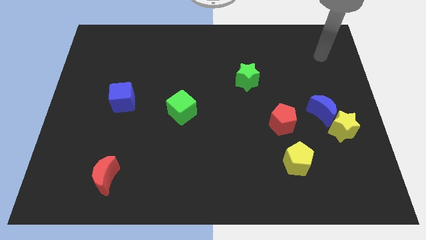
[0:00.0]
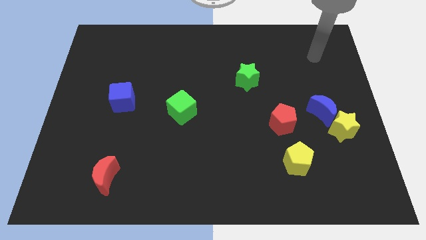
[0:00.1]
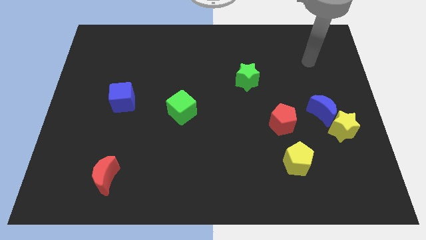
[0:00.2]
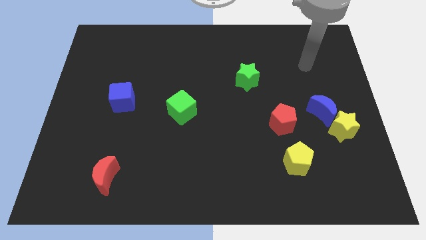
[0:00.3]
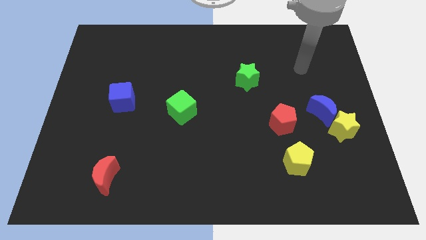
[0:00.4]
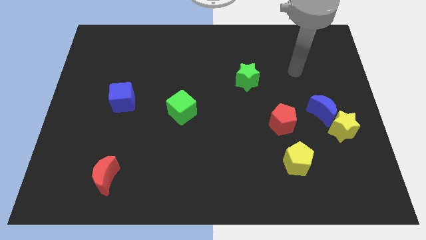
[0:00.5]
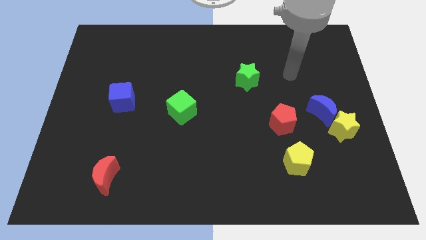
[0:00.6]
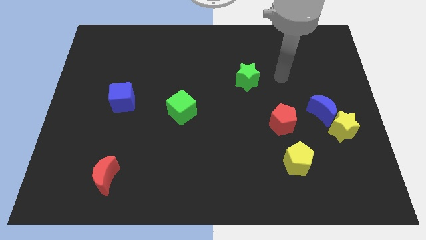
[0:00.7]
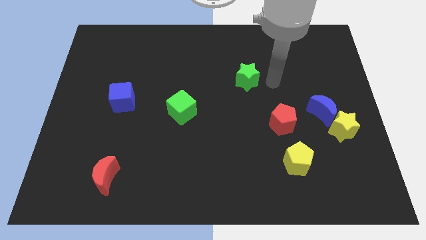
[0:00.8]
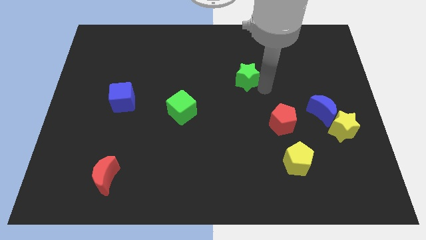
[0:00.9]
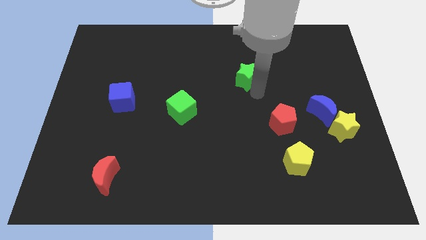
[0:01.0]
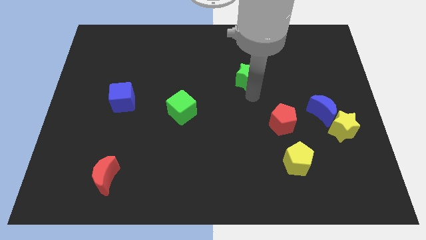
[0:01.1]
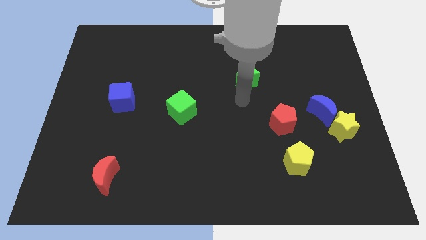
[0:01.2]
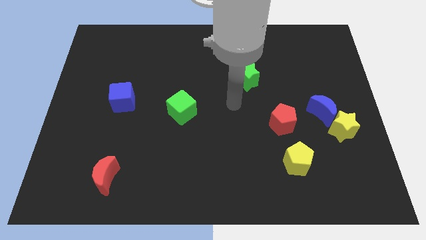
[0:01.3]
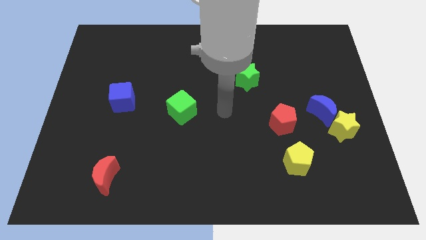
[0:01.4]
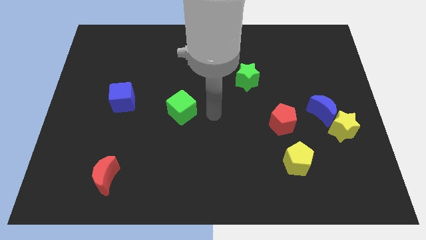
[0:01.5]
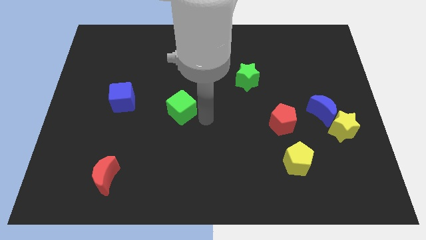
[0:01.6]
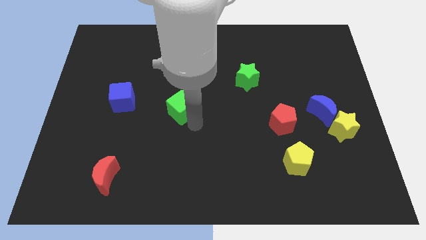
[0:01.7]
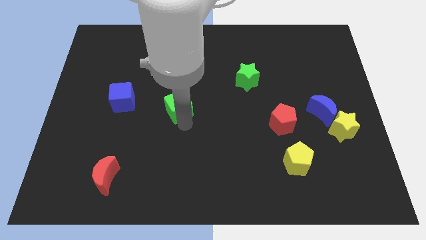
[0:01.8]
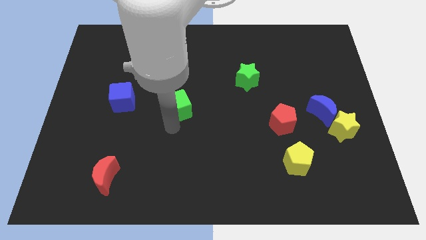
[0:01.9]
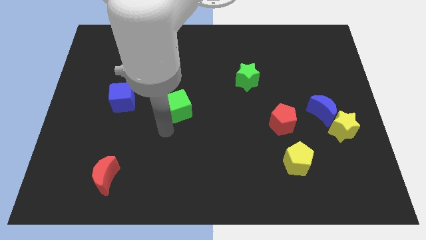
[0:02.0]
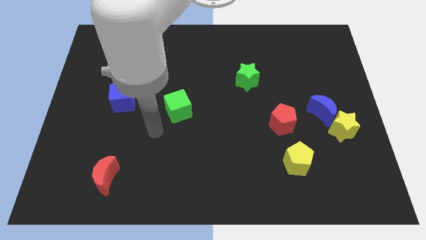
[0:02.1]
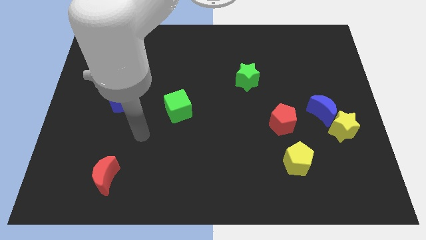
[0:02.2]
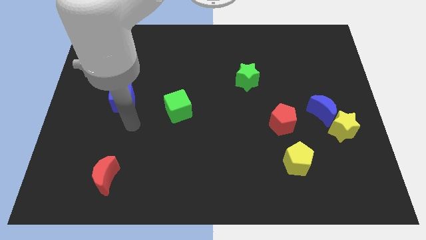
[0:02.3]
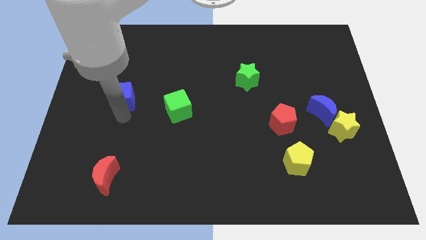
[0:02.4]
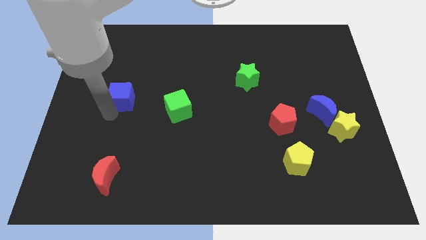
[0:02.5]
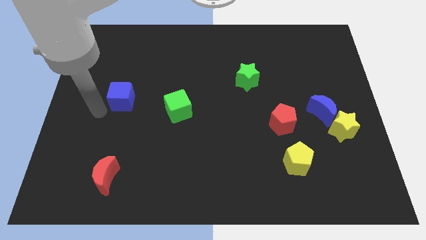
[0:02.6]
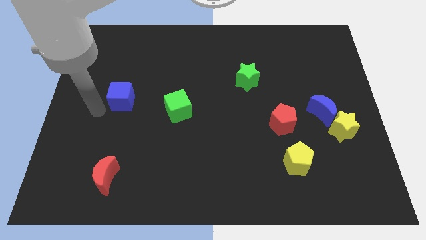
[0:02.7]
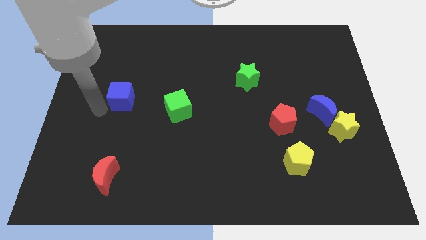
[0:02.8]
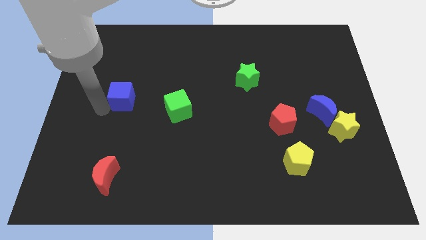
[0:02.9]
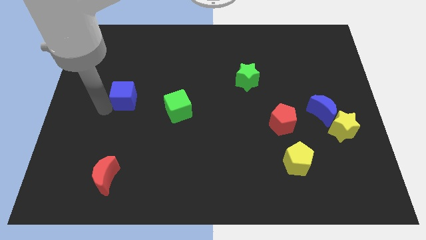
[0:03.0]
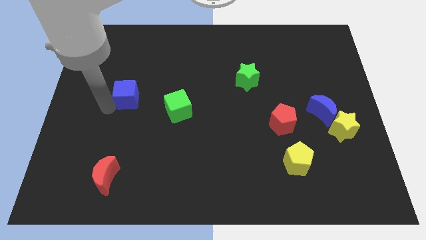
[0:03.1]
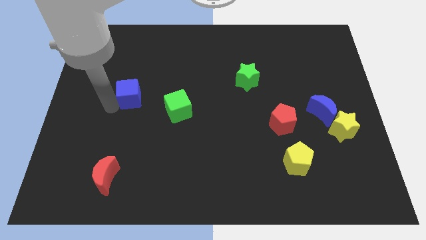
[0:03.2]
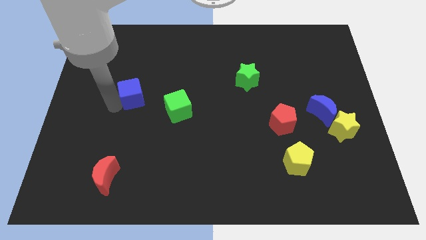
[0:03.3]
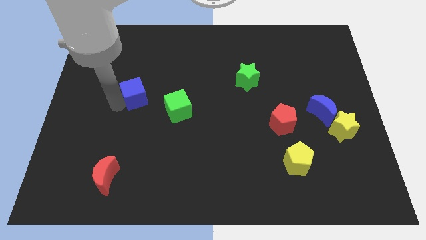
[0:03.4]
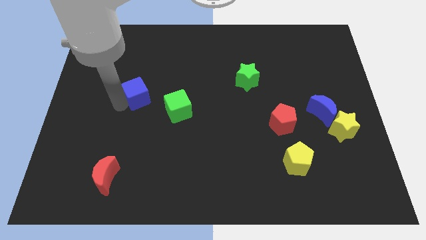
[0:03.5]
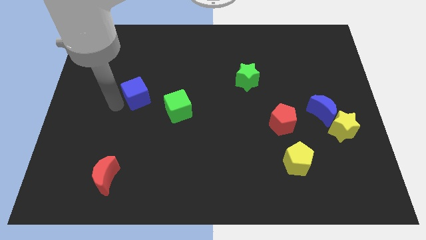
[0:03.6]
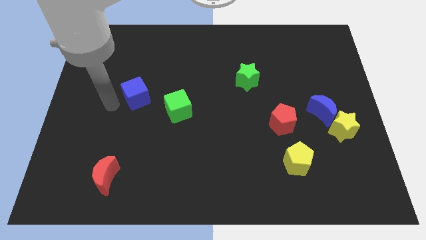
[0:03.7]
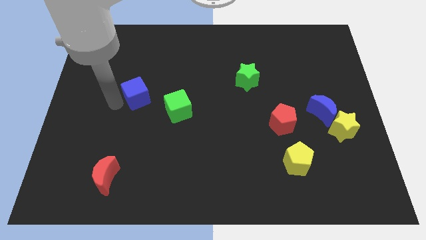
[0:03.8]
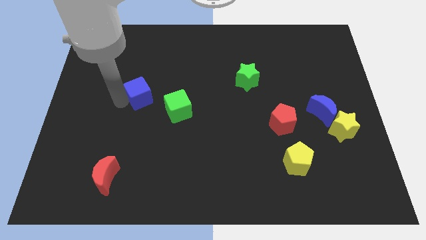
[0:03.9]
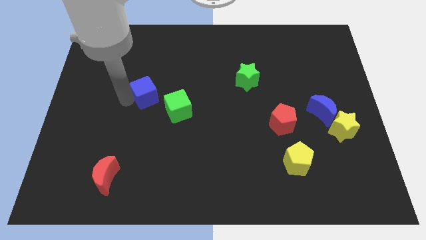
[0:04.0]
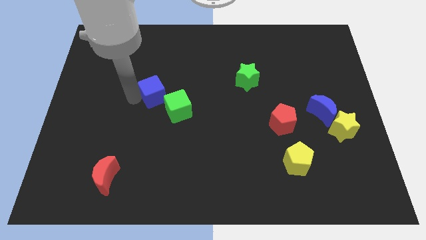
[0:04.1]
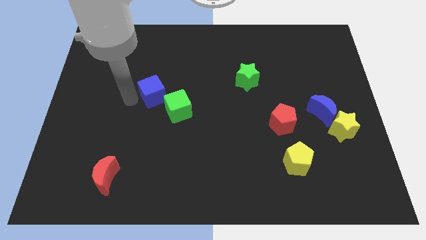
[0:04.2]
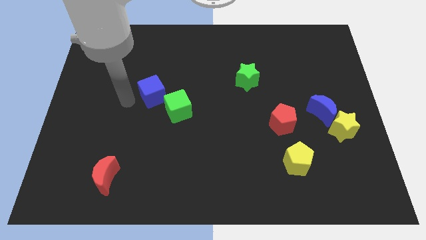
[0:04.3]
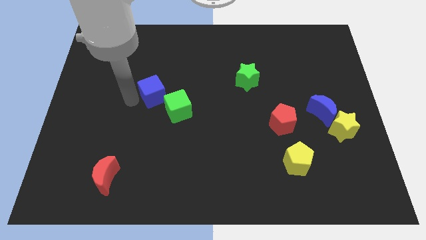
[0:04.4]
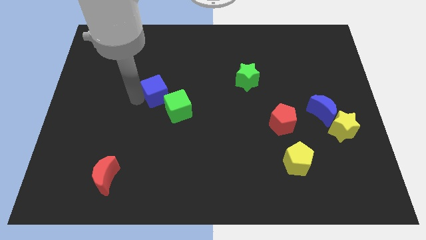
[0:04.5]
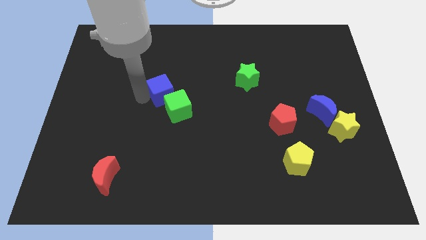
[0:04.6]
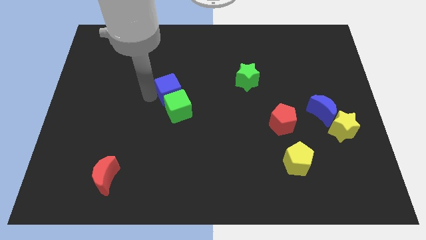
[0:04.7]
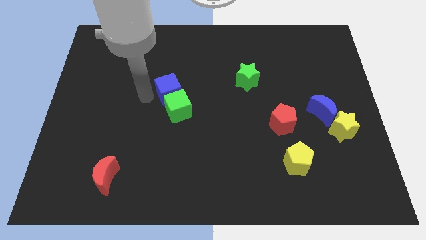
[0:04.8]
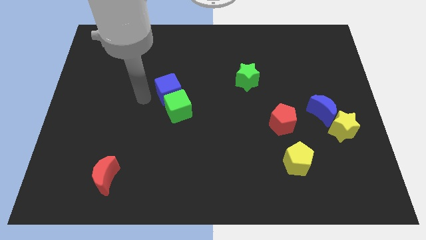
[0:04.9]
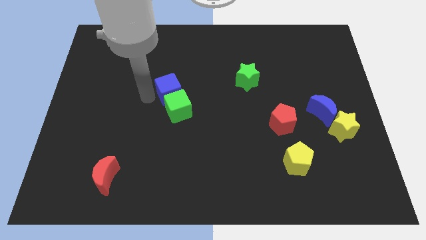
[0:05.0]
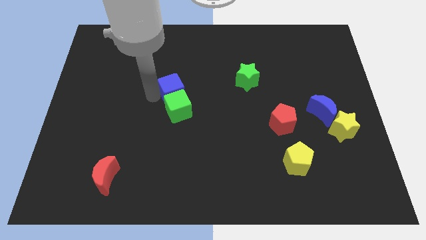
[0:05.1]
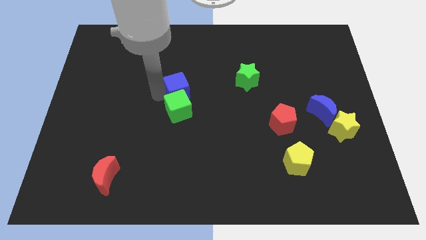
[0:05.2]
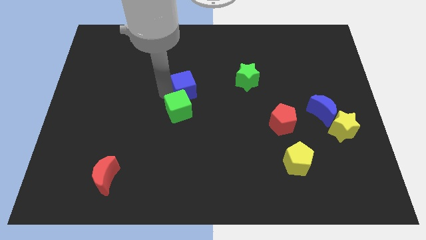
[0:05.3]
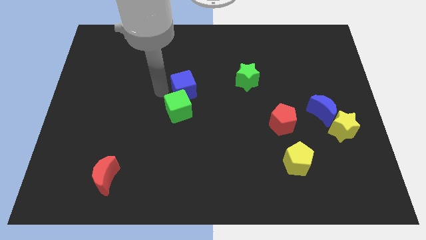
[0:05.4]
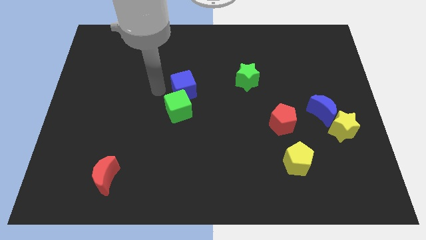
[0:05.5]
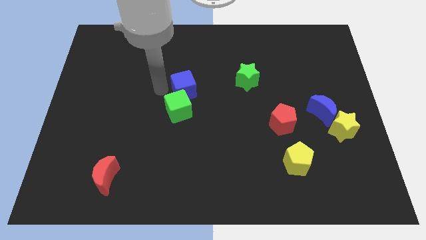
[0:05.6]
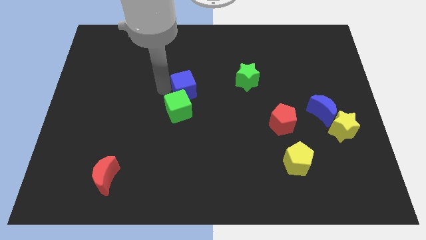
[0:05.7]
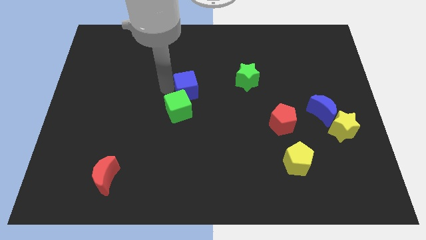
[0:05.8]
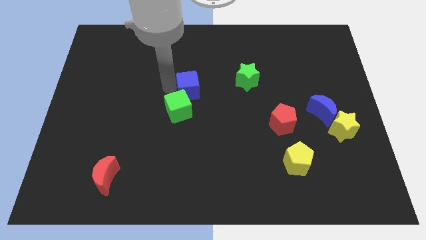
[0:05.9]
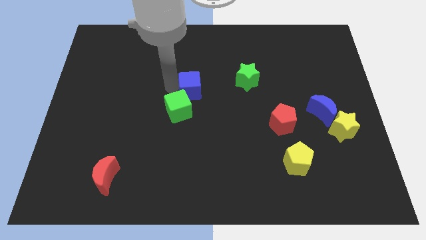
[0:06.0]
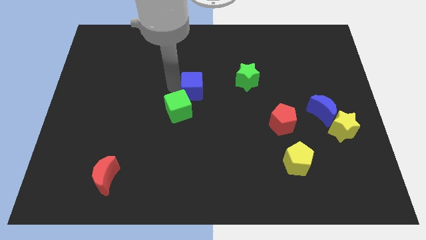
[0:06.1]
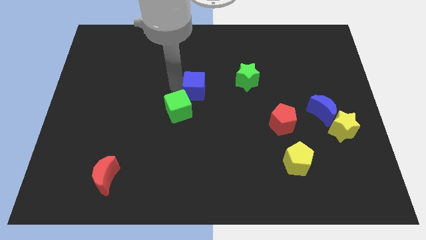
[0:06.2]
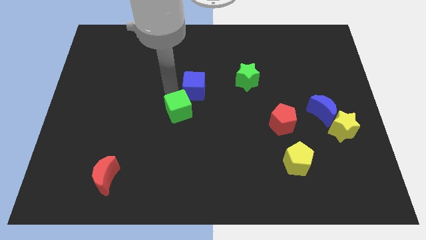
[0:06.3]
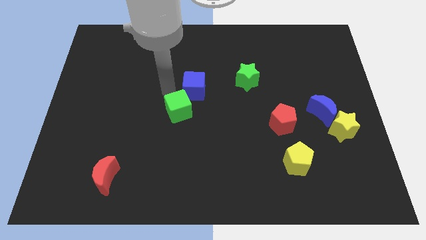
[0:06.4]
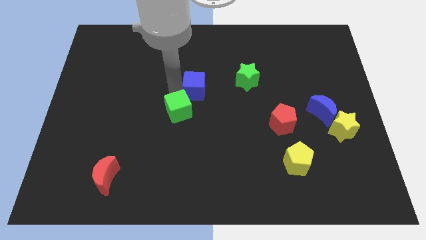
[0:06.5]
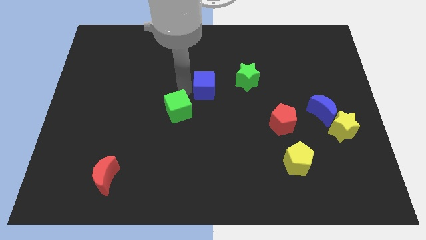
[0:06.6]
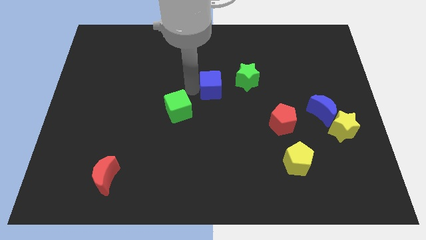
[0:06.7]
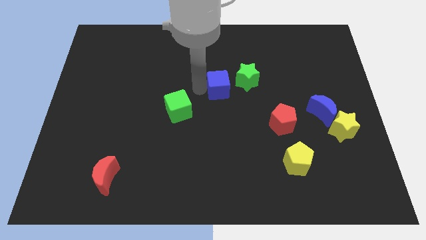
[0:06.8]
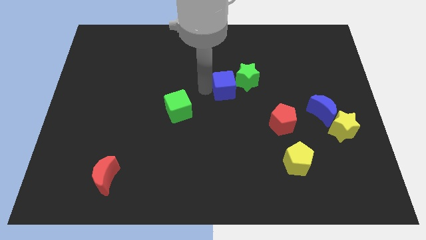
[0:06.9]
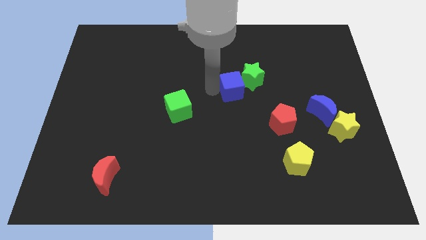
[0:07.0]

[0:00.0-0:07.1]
put the blue cube to the green star

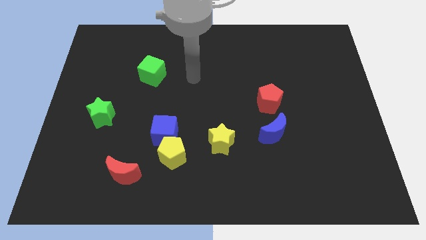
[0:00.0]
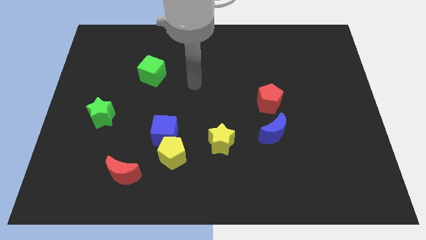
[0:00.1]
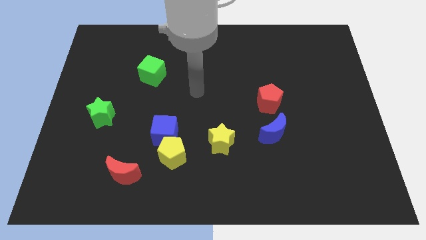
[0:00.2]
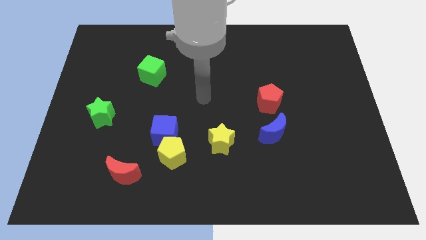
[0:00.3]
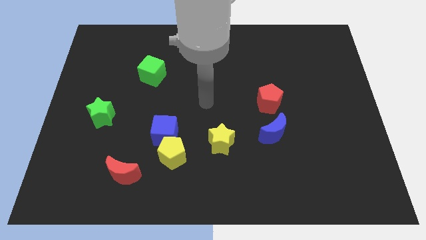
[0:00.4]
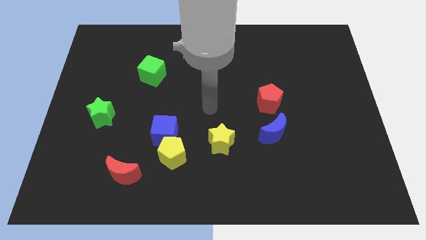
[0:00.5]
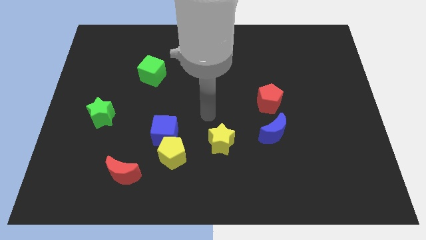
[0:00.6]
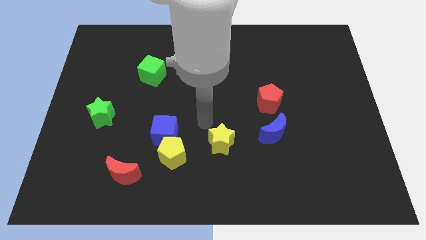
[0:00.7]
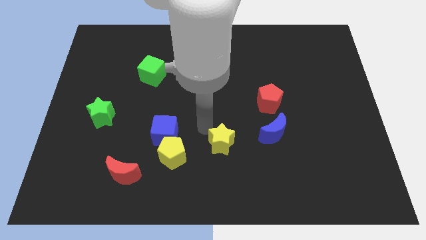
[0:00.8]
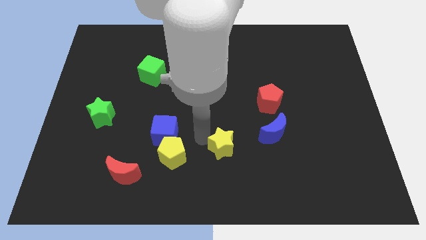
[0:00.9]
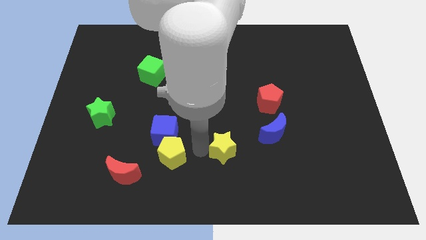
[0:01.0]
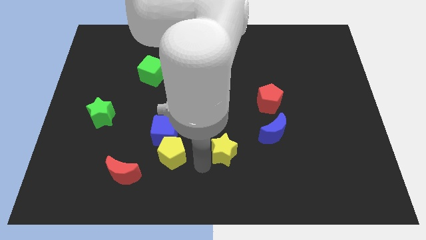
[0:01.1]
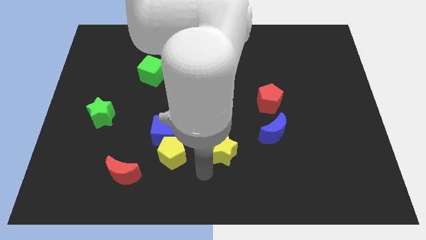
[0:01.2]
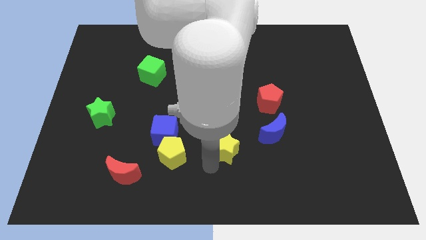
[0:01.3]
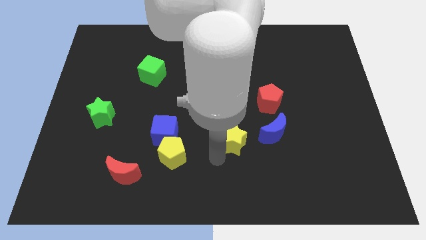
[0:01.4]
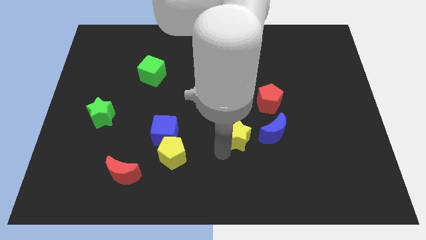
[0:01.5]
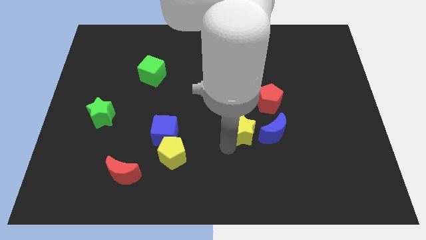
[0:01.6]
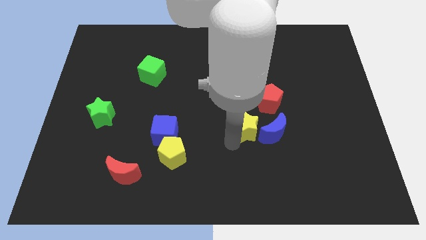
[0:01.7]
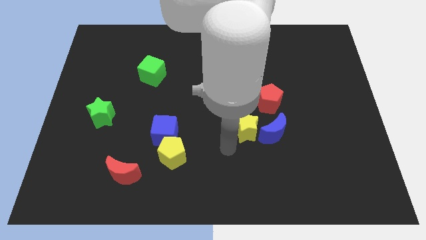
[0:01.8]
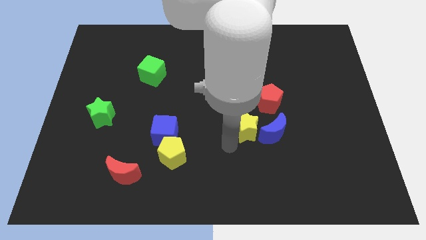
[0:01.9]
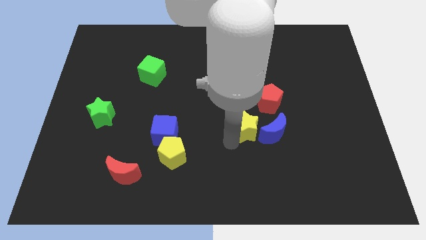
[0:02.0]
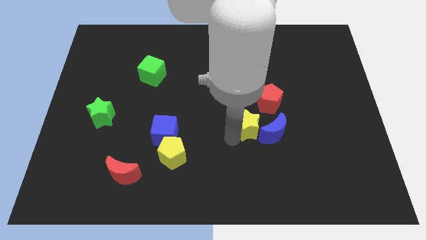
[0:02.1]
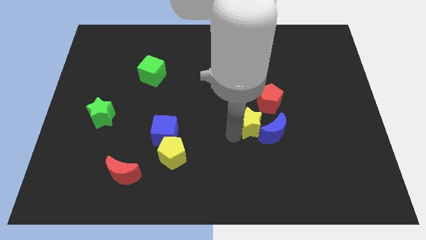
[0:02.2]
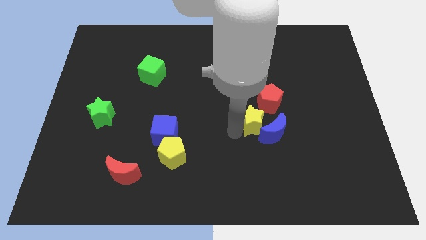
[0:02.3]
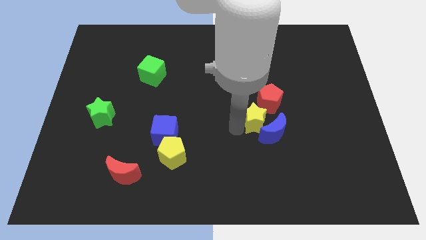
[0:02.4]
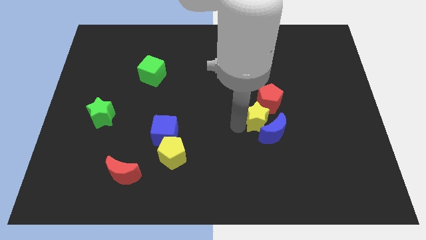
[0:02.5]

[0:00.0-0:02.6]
push the yellow star to the red pentagon
